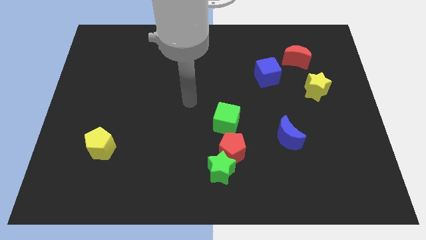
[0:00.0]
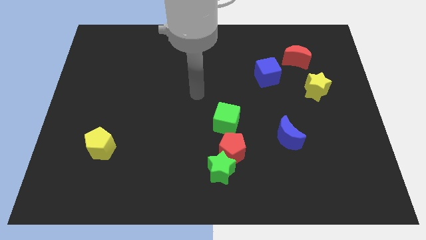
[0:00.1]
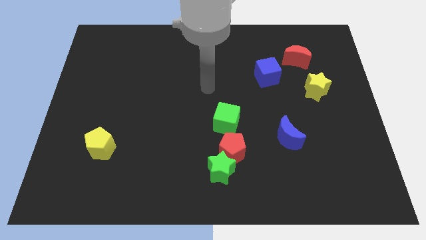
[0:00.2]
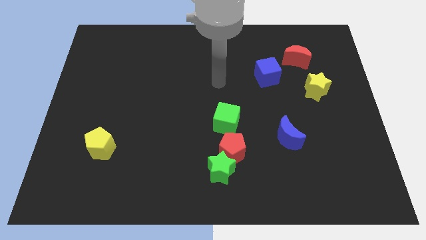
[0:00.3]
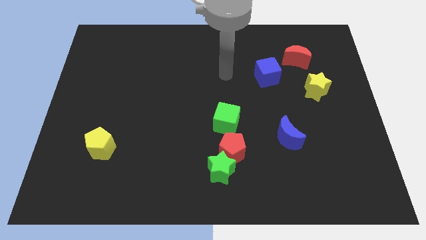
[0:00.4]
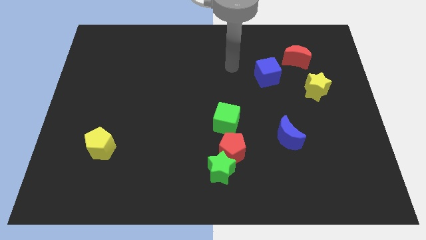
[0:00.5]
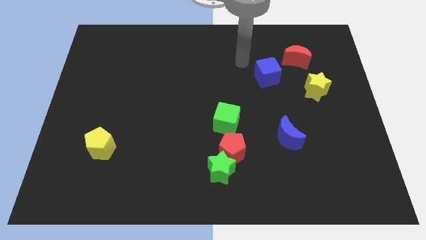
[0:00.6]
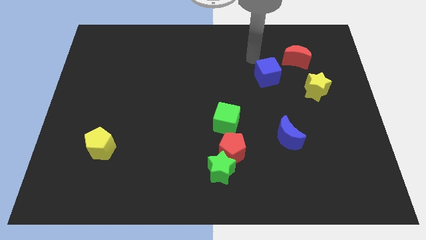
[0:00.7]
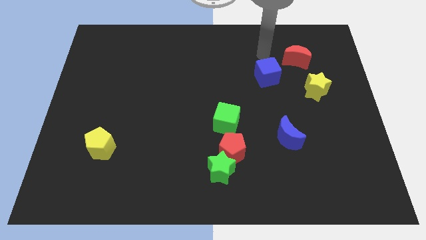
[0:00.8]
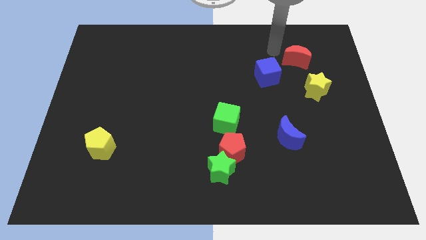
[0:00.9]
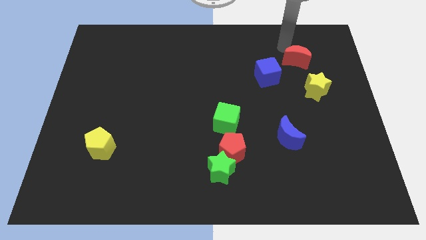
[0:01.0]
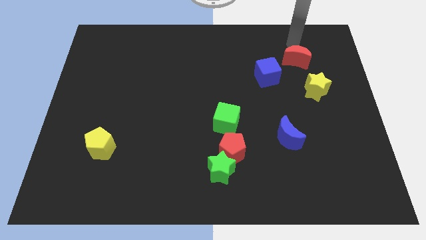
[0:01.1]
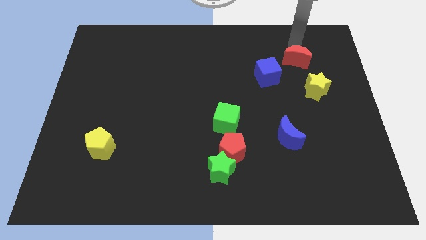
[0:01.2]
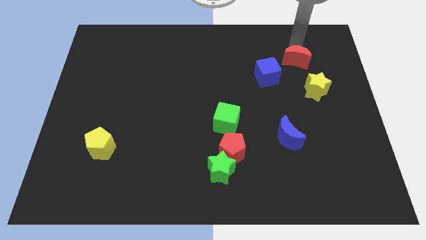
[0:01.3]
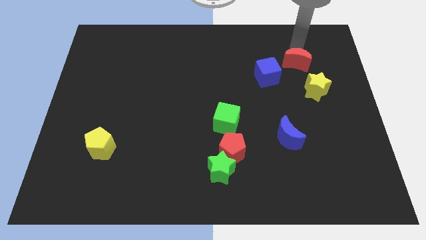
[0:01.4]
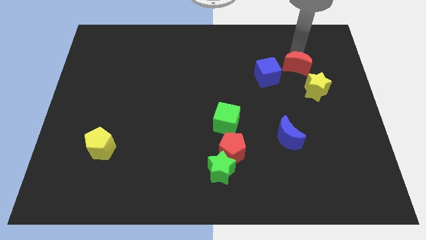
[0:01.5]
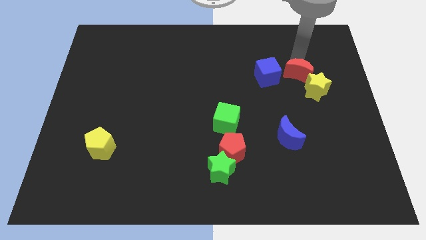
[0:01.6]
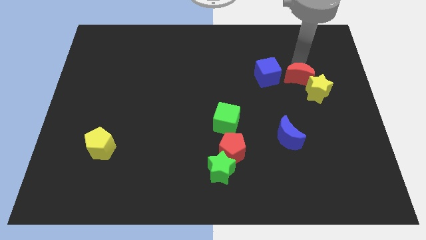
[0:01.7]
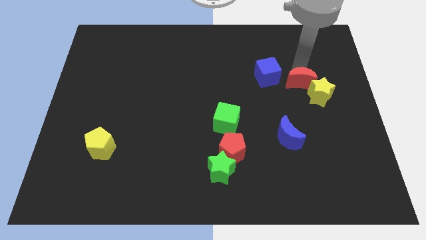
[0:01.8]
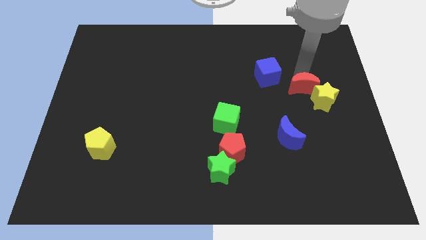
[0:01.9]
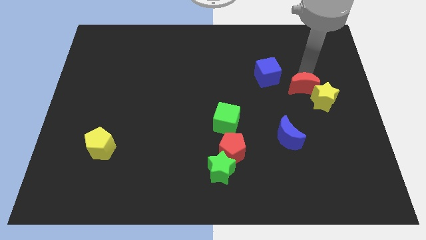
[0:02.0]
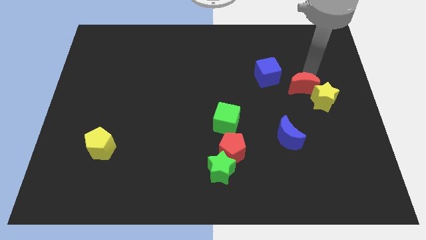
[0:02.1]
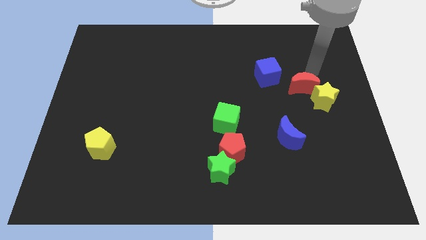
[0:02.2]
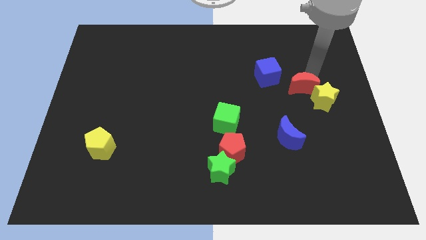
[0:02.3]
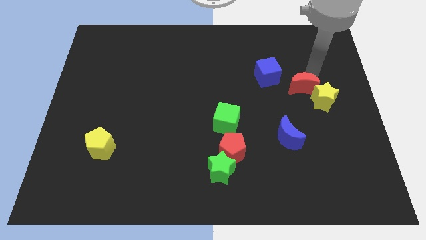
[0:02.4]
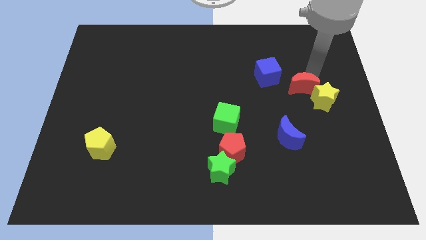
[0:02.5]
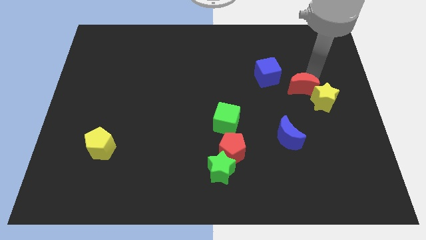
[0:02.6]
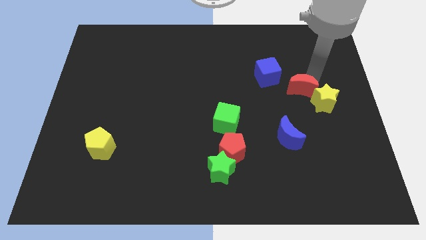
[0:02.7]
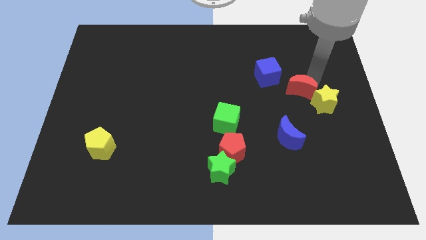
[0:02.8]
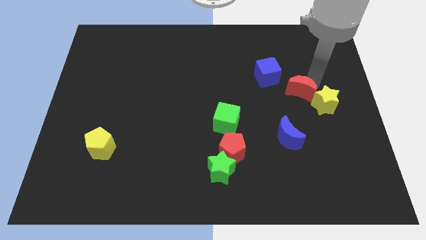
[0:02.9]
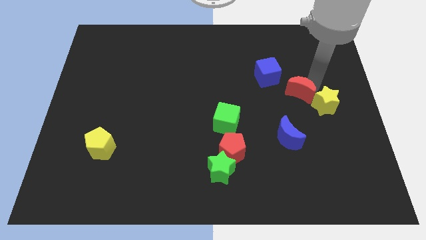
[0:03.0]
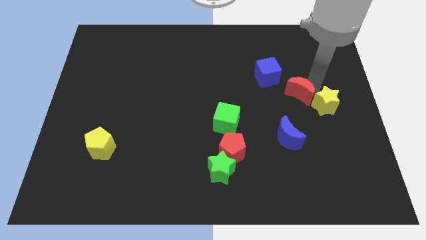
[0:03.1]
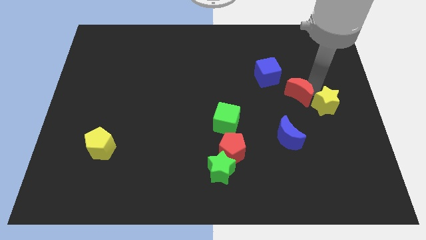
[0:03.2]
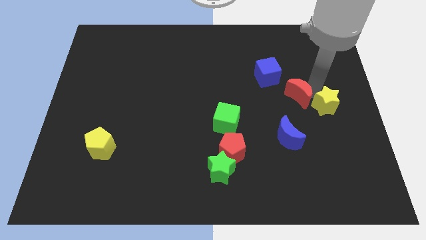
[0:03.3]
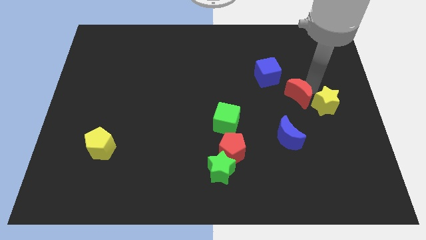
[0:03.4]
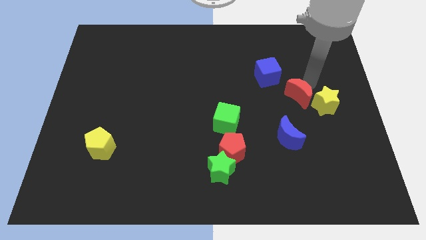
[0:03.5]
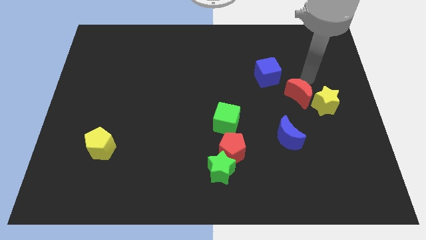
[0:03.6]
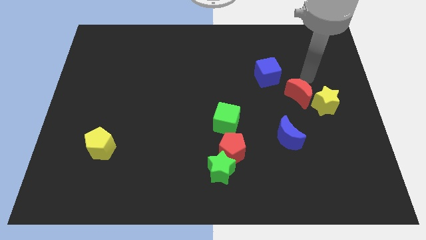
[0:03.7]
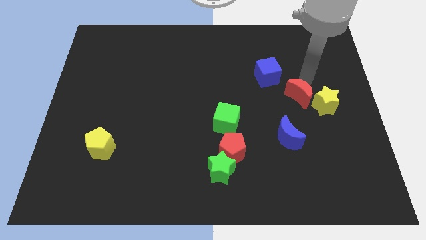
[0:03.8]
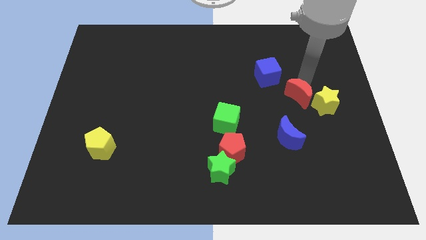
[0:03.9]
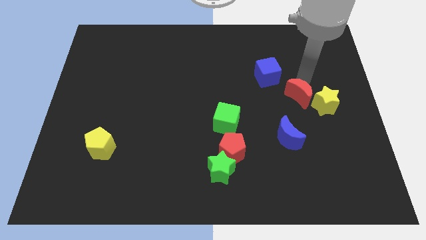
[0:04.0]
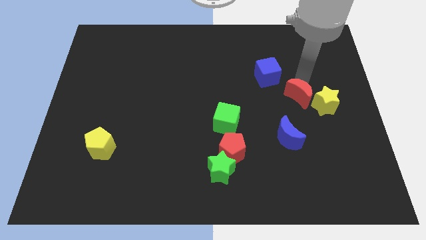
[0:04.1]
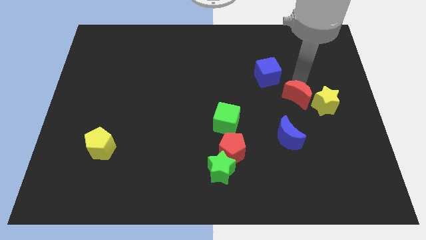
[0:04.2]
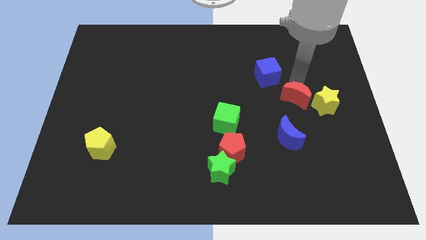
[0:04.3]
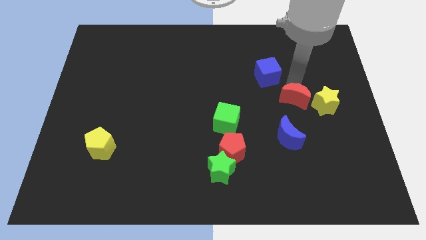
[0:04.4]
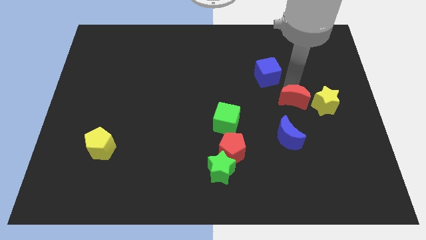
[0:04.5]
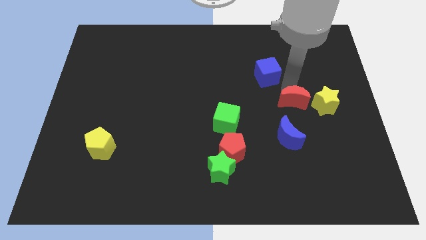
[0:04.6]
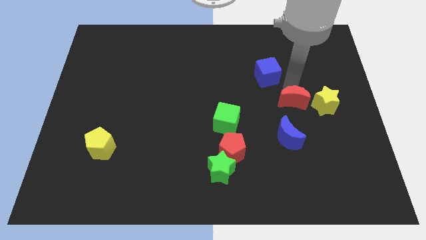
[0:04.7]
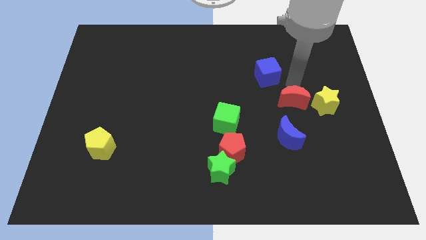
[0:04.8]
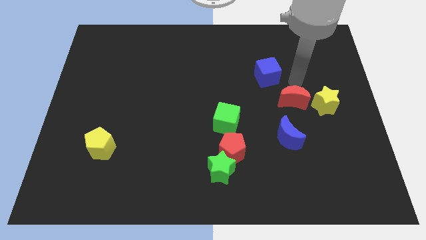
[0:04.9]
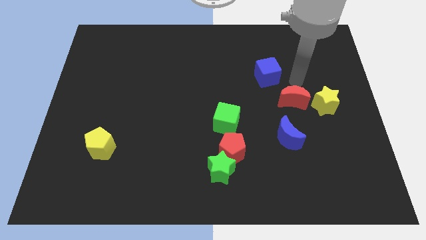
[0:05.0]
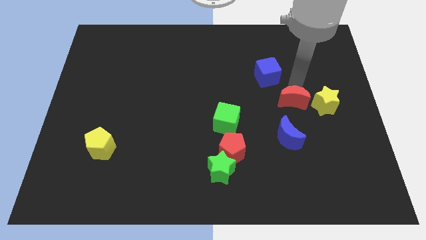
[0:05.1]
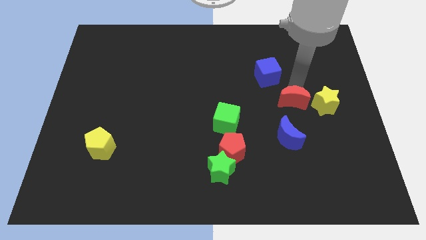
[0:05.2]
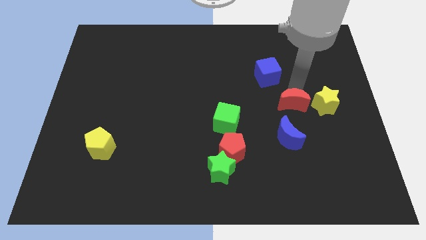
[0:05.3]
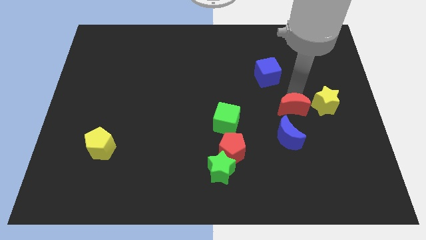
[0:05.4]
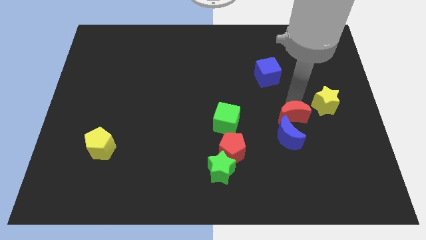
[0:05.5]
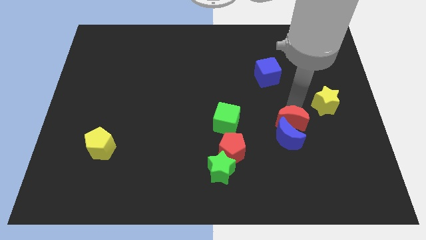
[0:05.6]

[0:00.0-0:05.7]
slide the red moon to the blue moon

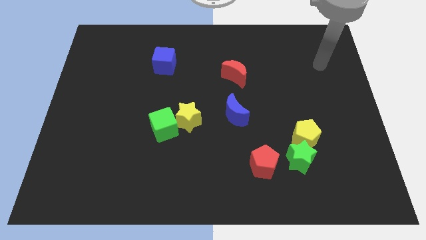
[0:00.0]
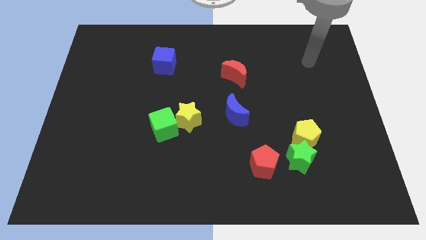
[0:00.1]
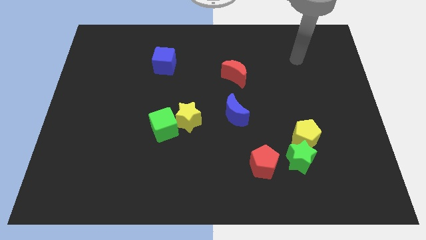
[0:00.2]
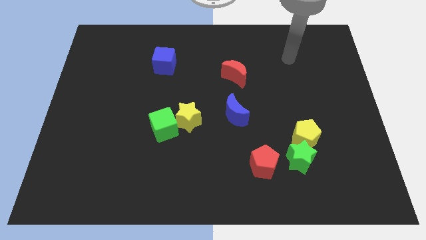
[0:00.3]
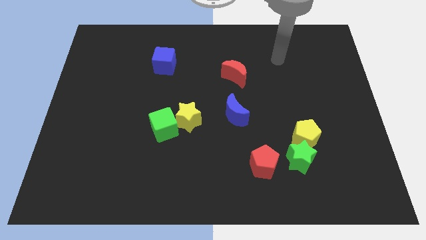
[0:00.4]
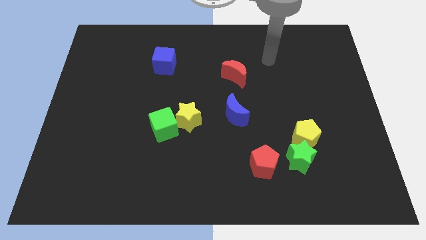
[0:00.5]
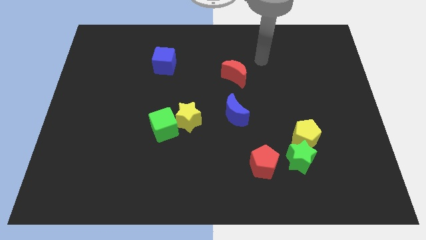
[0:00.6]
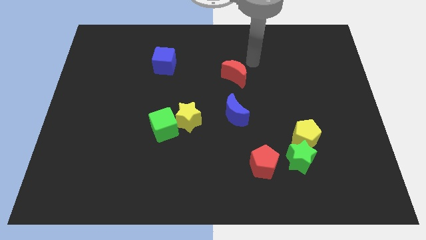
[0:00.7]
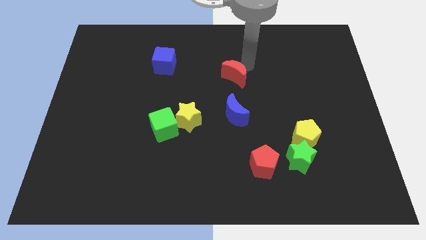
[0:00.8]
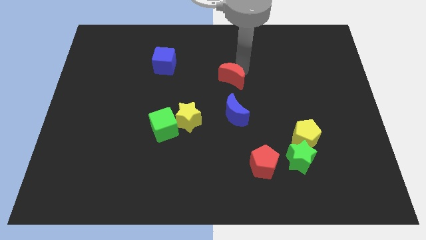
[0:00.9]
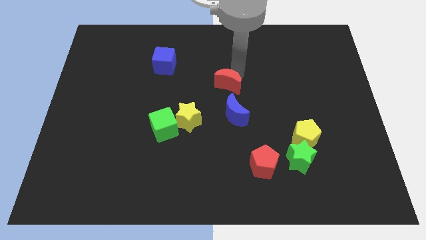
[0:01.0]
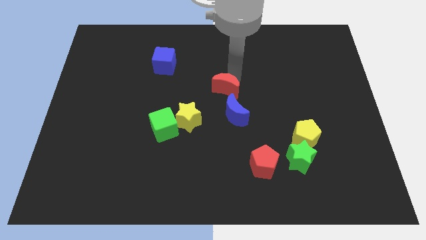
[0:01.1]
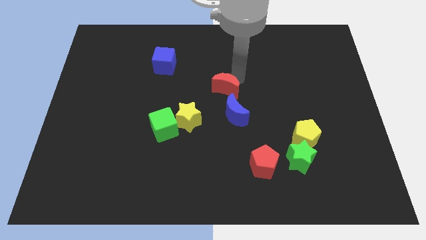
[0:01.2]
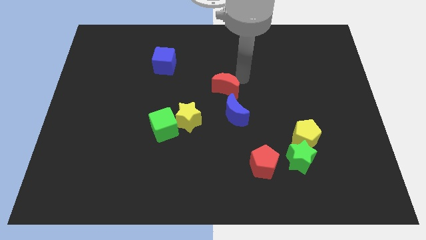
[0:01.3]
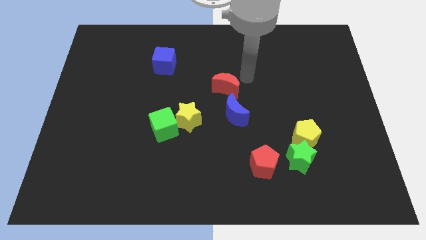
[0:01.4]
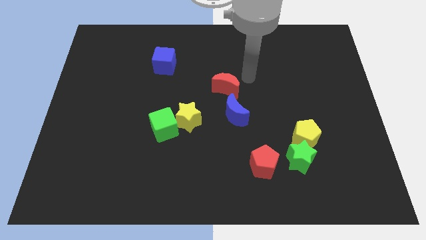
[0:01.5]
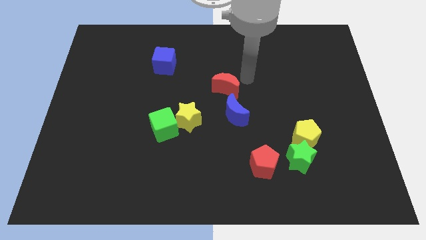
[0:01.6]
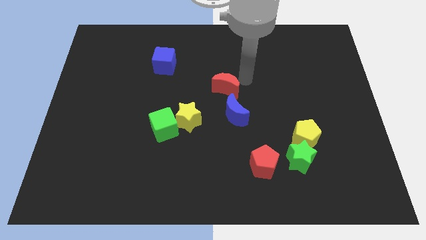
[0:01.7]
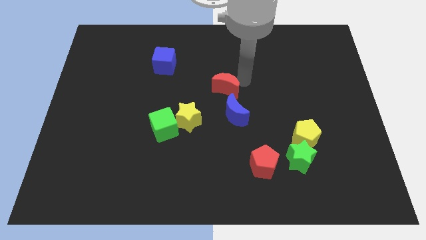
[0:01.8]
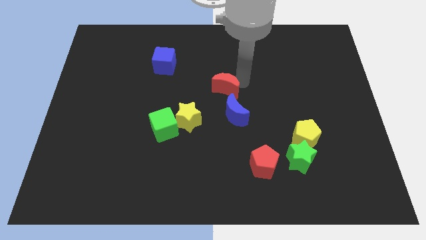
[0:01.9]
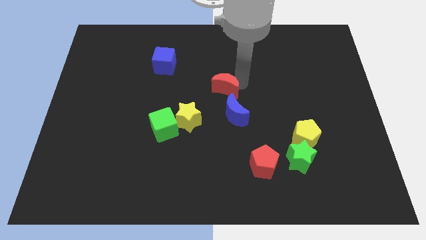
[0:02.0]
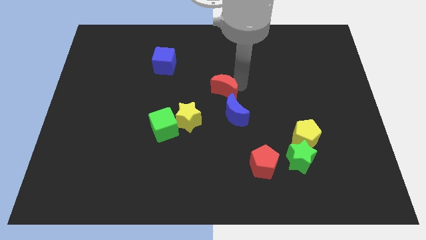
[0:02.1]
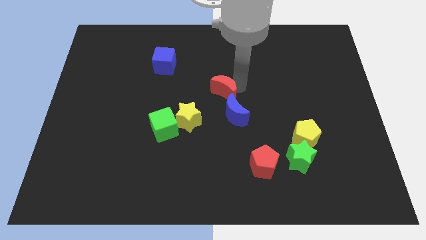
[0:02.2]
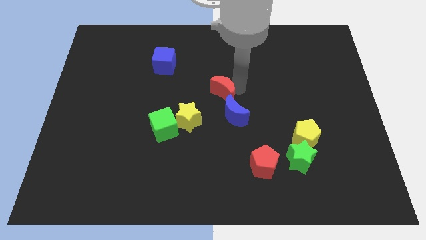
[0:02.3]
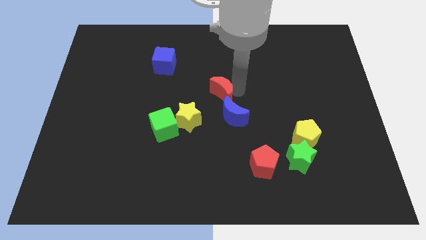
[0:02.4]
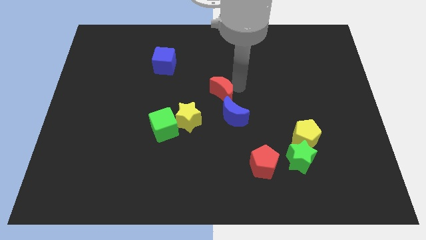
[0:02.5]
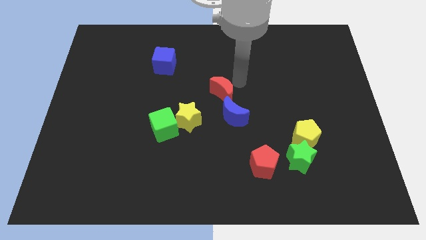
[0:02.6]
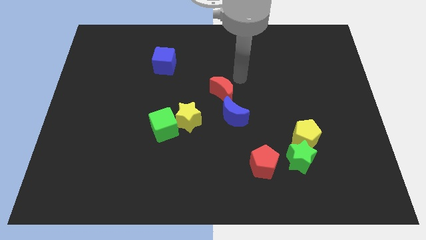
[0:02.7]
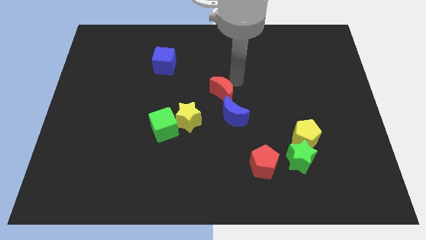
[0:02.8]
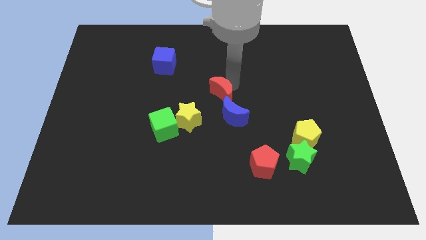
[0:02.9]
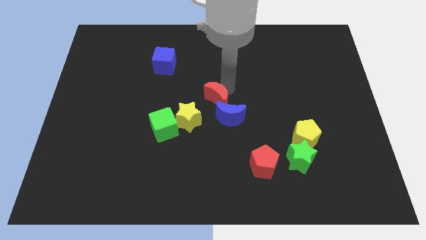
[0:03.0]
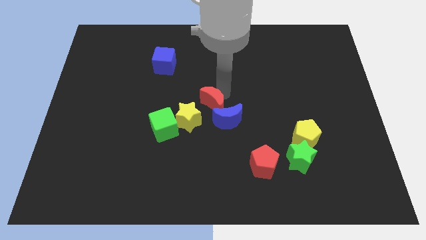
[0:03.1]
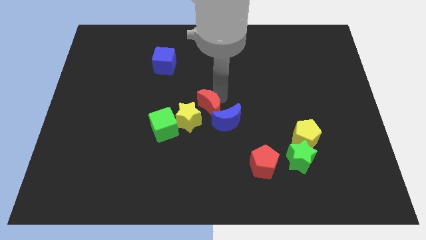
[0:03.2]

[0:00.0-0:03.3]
push the red moon close to the yellow star
